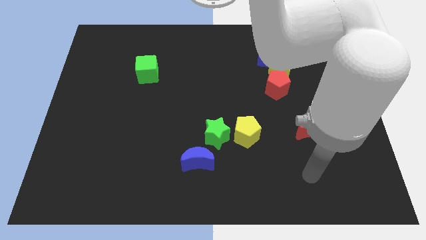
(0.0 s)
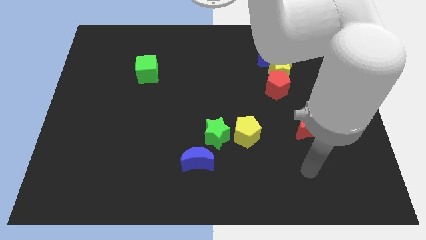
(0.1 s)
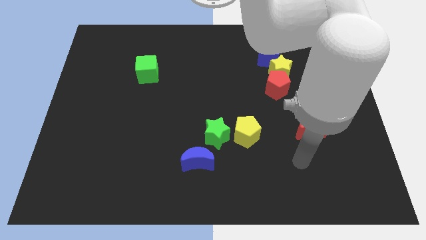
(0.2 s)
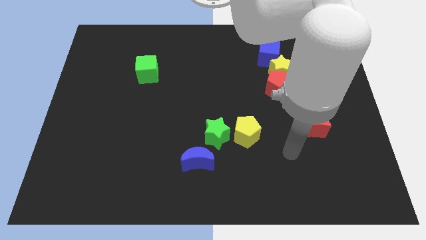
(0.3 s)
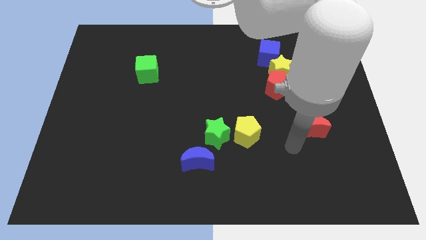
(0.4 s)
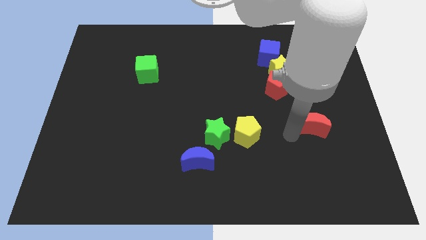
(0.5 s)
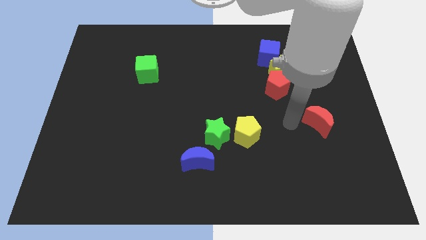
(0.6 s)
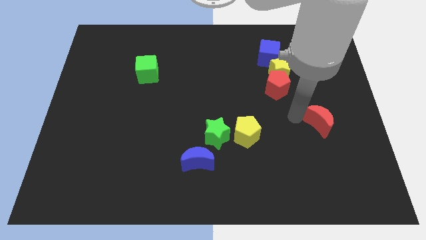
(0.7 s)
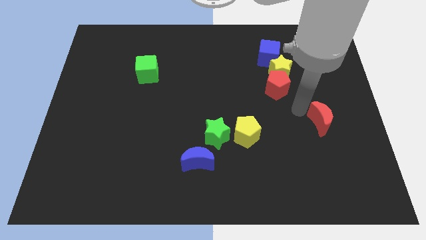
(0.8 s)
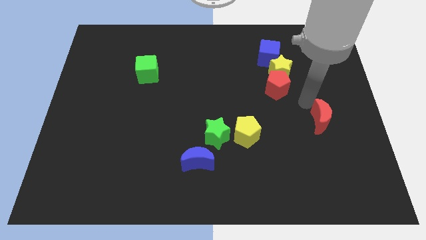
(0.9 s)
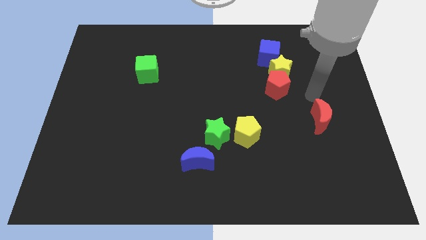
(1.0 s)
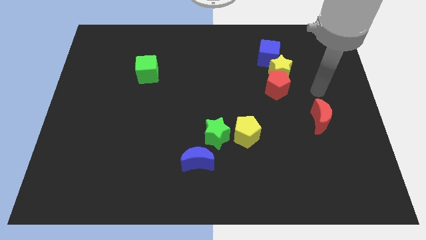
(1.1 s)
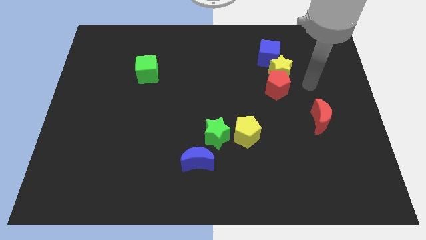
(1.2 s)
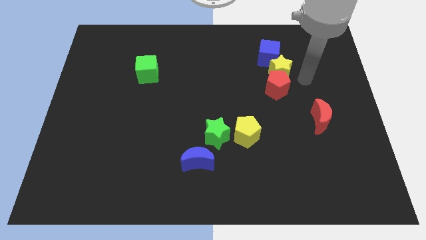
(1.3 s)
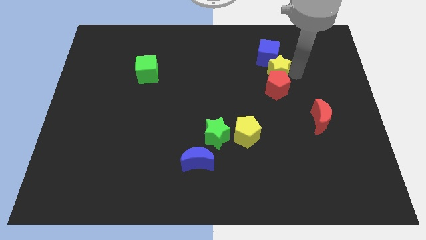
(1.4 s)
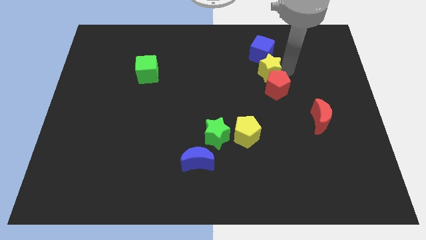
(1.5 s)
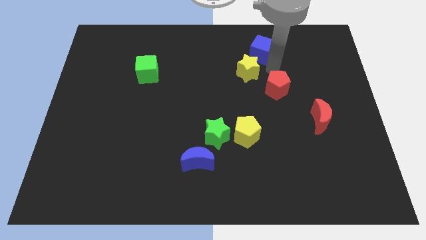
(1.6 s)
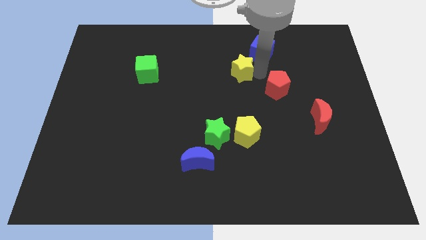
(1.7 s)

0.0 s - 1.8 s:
move the red pentagon away from the yellow star

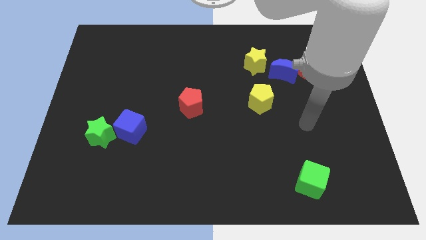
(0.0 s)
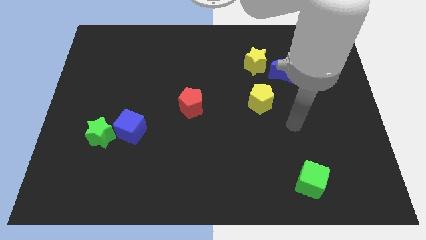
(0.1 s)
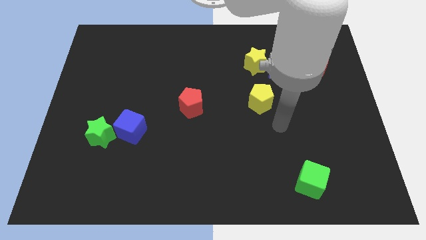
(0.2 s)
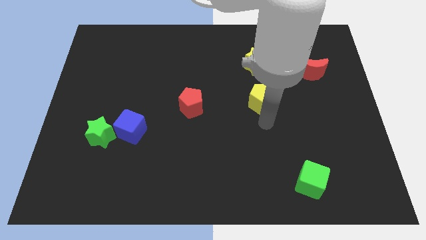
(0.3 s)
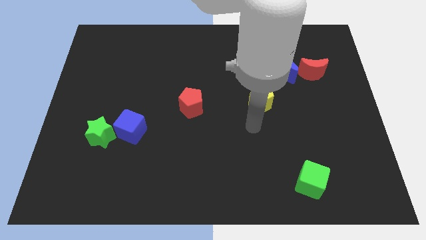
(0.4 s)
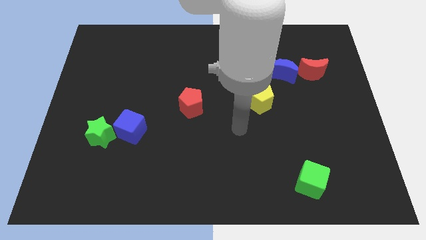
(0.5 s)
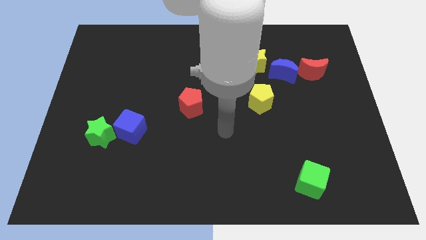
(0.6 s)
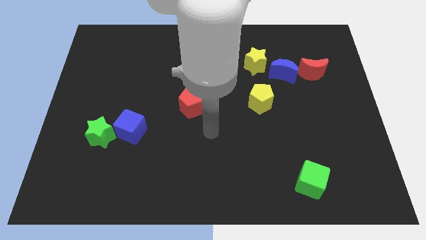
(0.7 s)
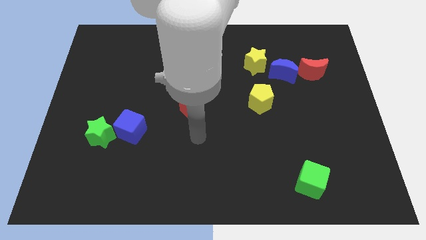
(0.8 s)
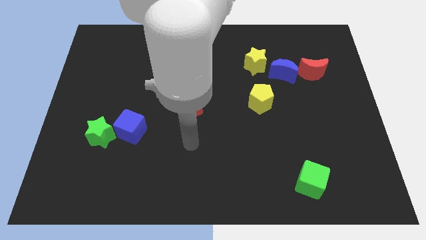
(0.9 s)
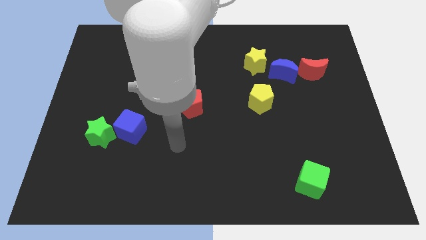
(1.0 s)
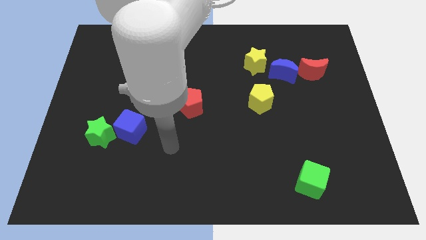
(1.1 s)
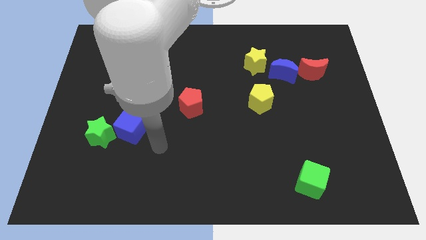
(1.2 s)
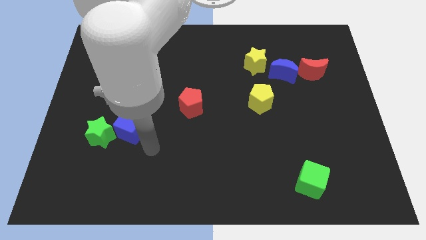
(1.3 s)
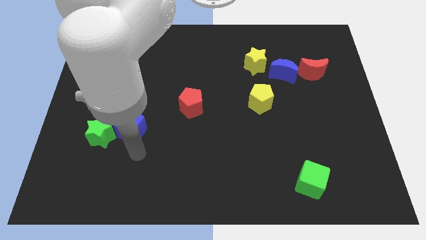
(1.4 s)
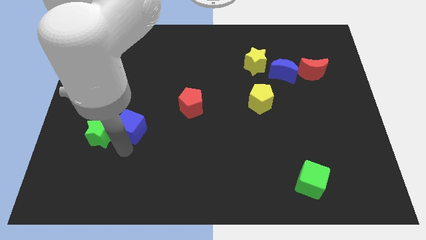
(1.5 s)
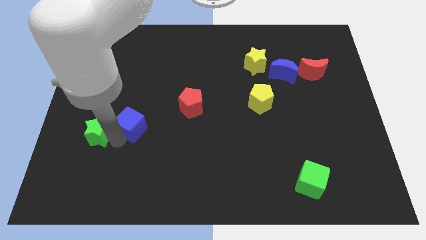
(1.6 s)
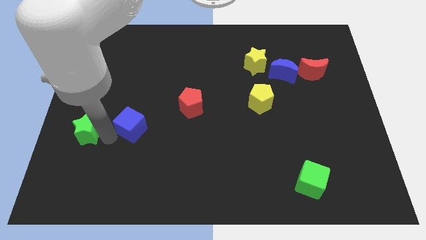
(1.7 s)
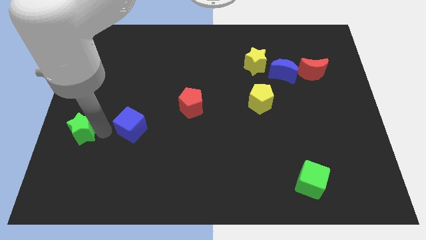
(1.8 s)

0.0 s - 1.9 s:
move the blue cube away from the green star

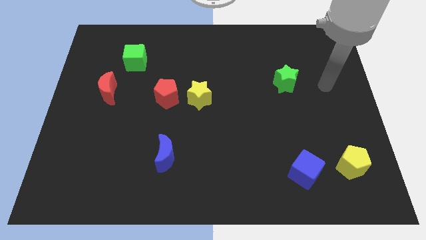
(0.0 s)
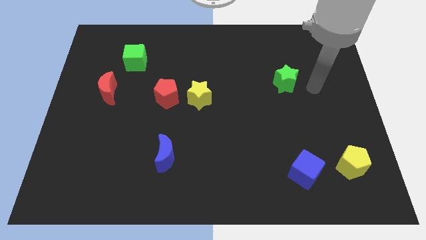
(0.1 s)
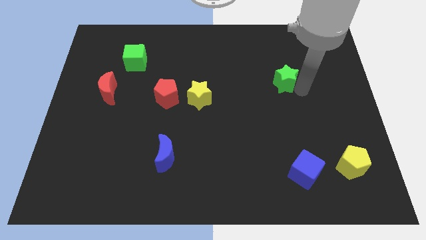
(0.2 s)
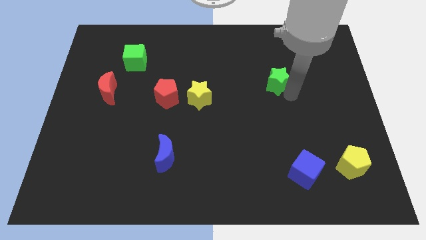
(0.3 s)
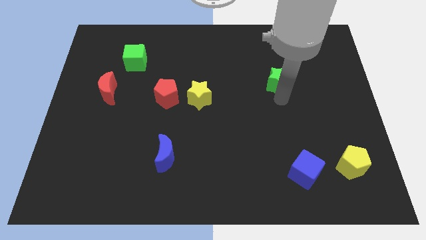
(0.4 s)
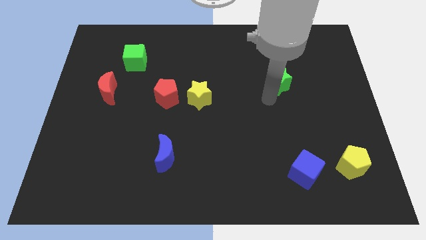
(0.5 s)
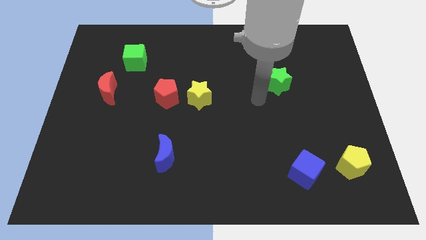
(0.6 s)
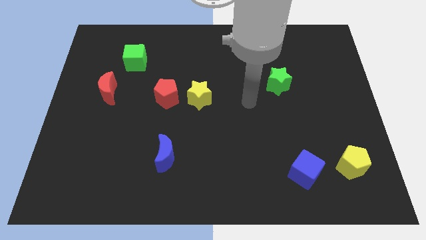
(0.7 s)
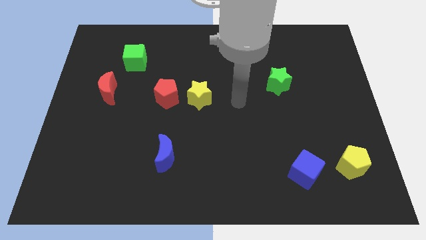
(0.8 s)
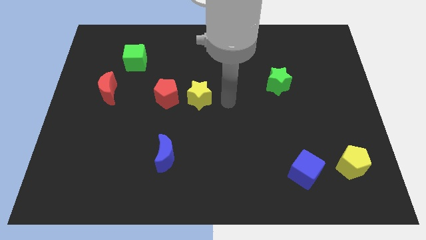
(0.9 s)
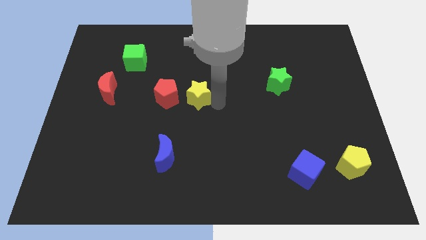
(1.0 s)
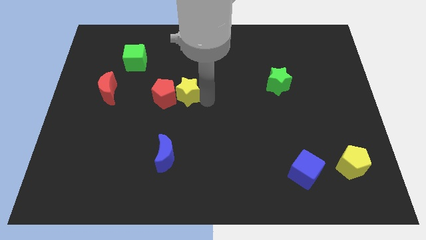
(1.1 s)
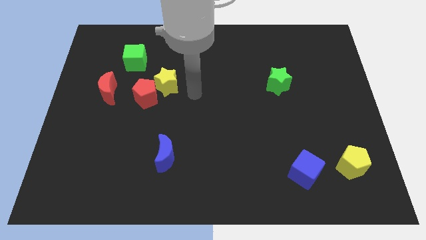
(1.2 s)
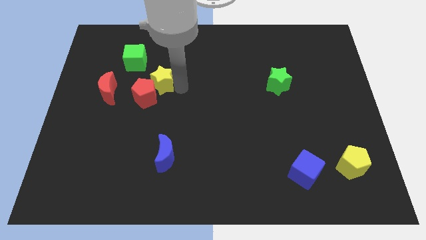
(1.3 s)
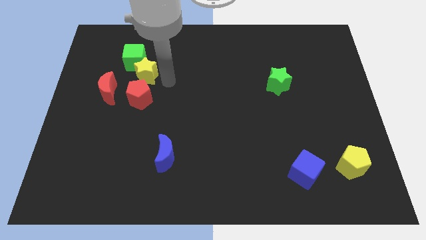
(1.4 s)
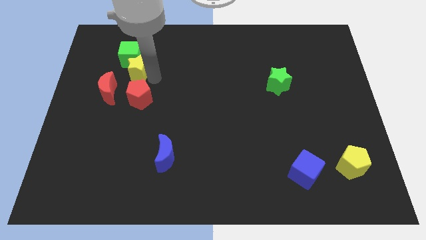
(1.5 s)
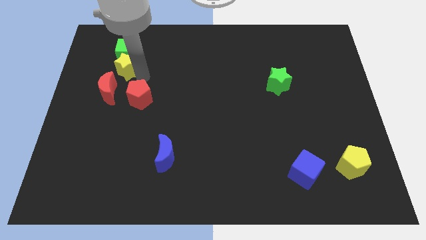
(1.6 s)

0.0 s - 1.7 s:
separate the red pentagon from the yellow star

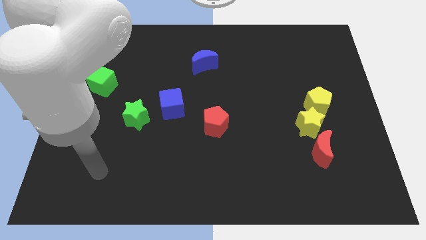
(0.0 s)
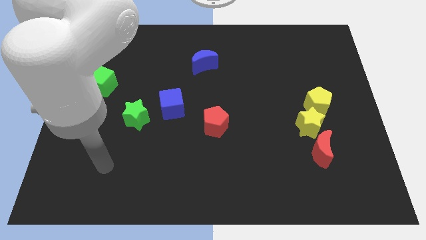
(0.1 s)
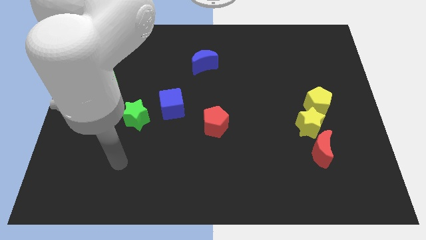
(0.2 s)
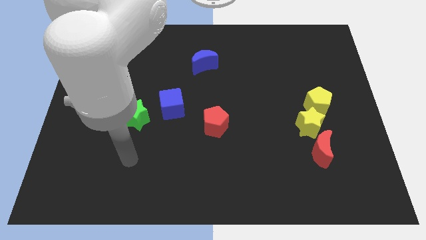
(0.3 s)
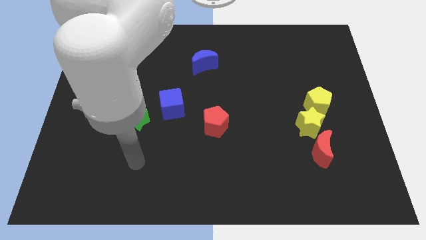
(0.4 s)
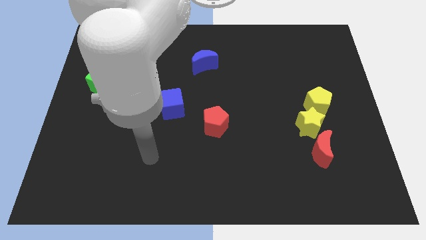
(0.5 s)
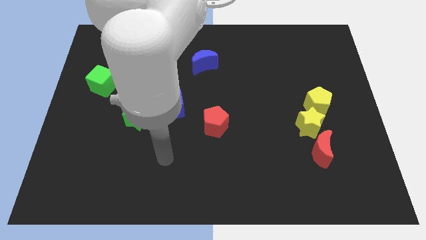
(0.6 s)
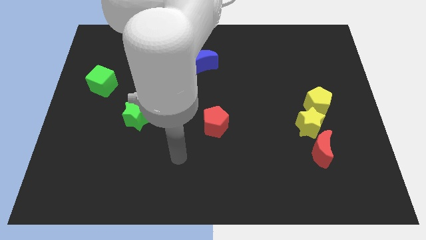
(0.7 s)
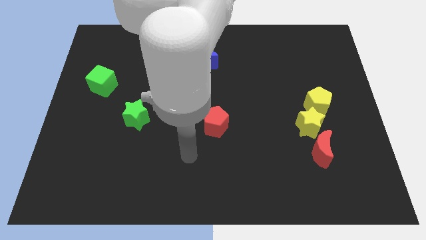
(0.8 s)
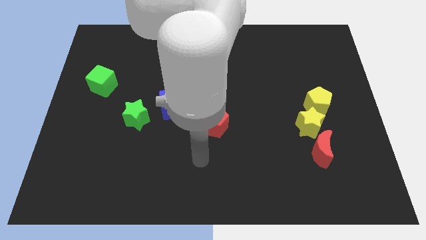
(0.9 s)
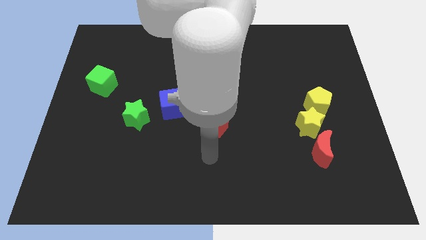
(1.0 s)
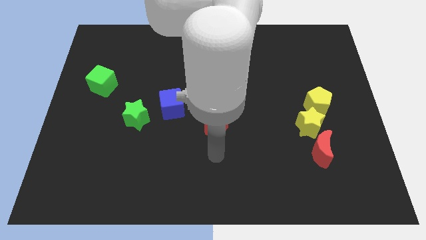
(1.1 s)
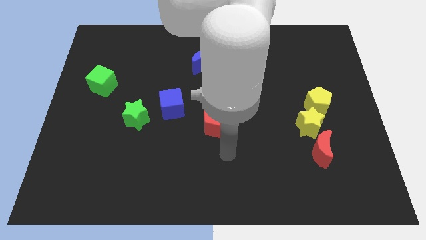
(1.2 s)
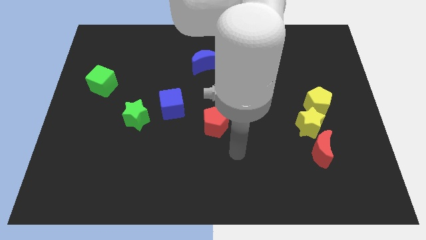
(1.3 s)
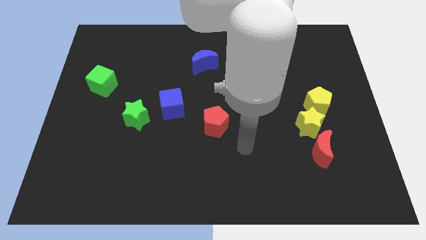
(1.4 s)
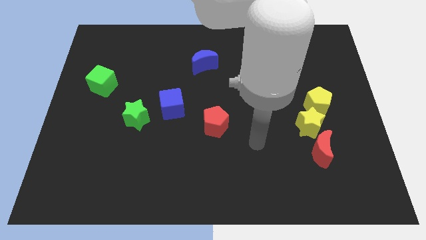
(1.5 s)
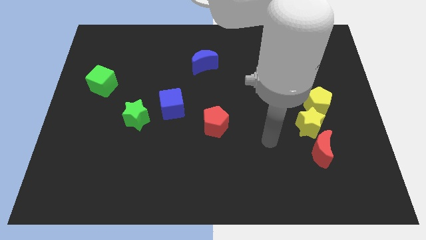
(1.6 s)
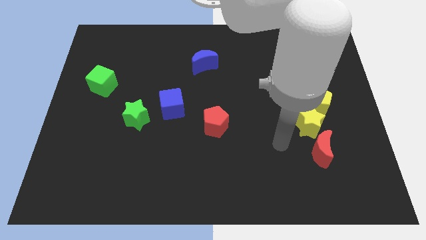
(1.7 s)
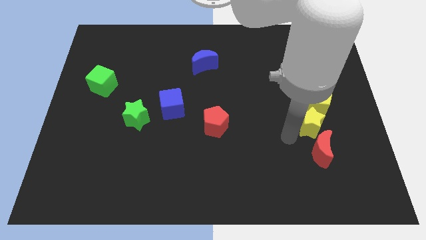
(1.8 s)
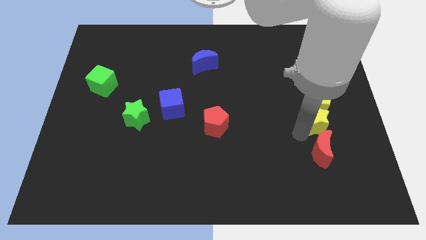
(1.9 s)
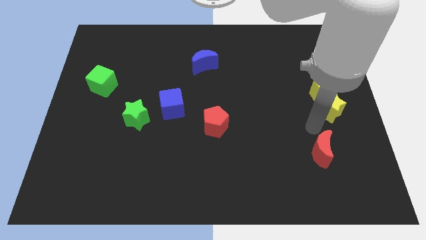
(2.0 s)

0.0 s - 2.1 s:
separate the red moon from the yellow star

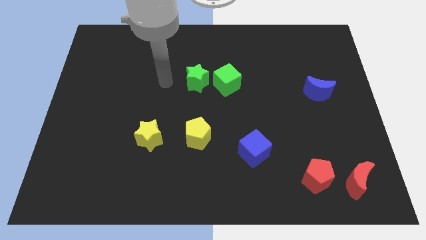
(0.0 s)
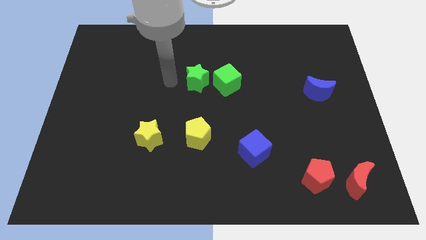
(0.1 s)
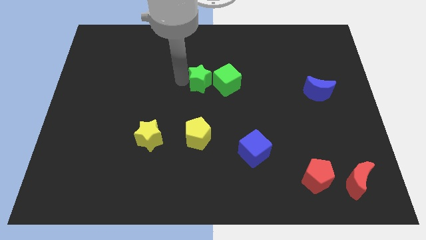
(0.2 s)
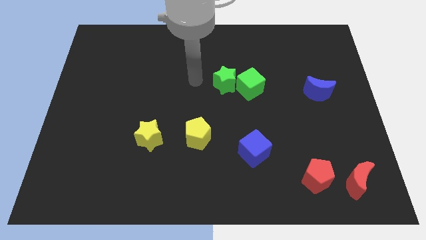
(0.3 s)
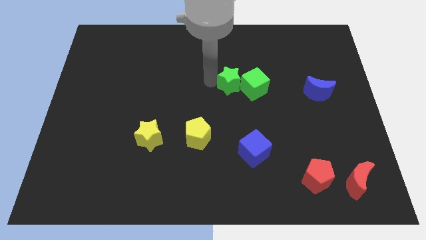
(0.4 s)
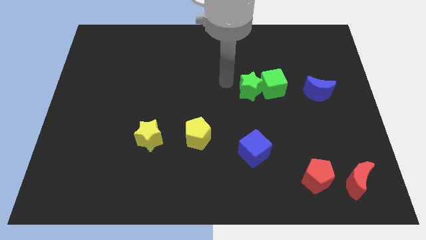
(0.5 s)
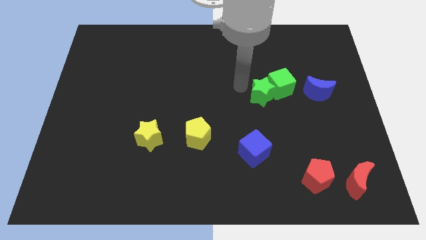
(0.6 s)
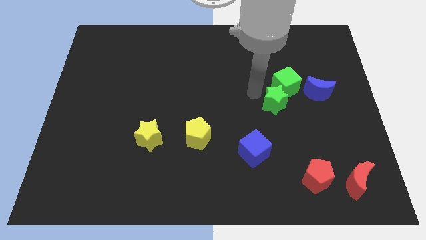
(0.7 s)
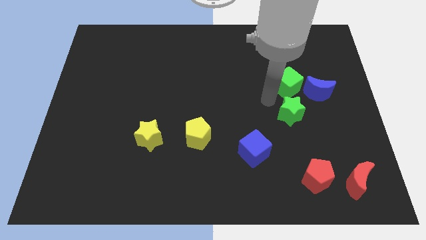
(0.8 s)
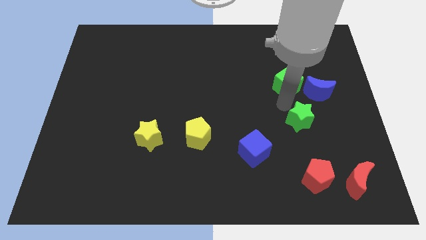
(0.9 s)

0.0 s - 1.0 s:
pull the green cube apart from the green star

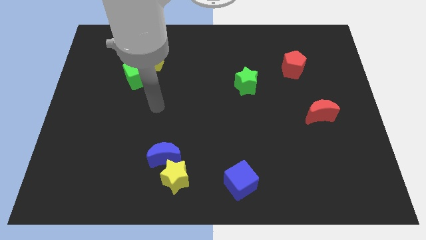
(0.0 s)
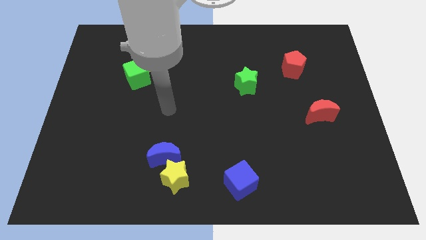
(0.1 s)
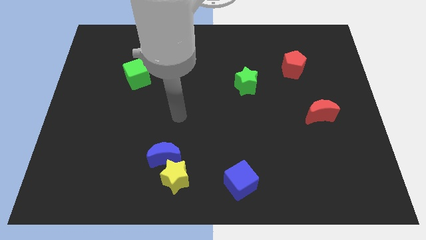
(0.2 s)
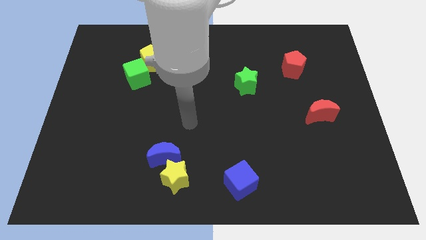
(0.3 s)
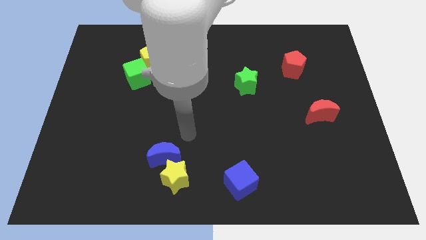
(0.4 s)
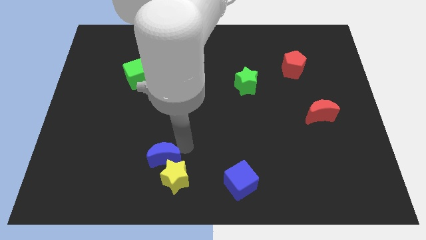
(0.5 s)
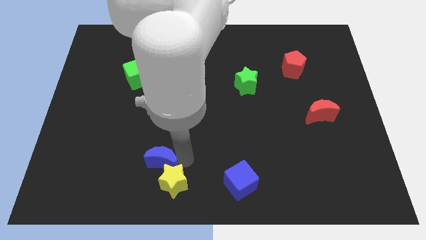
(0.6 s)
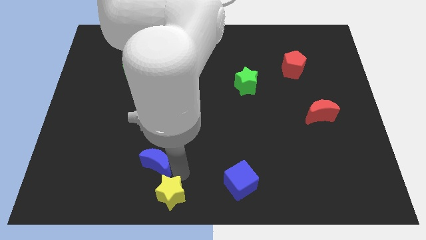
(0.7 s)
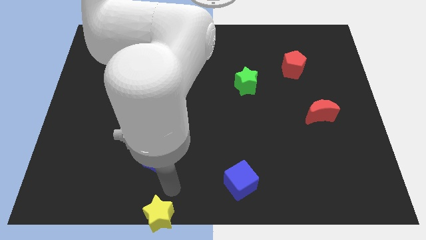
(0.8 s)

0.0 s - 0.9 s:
move the blue moon away from the yellow star

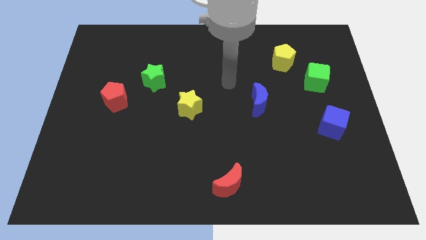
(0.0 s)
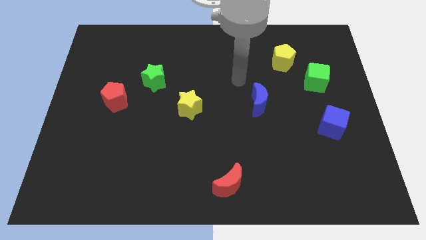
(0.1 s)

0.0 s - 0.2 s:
move the green cube away from the yellow pentagon
